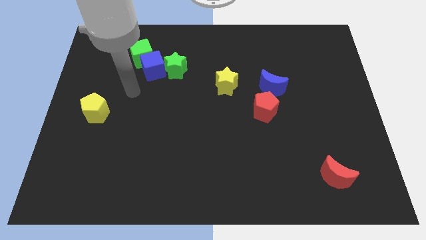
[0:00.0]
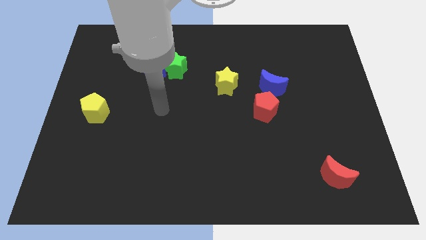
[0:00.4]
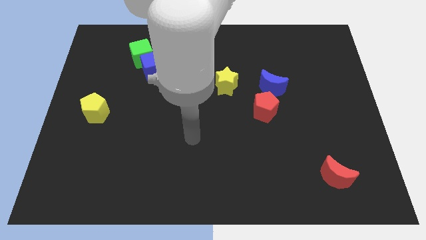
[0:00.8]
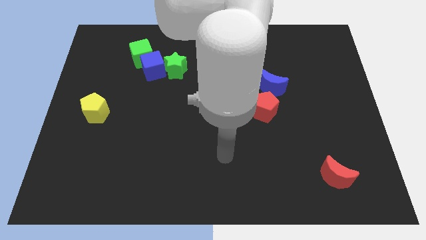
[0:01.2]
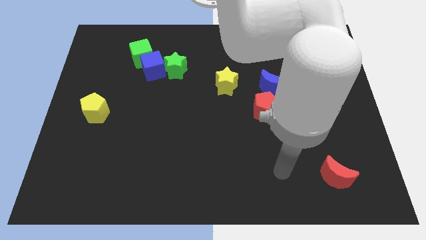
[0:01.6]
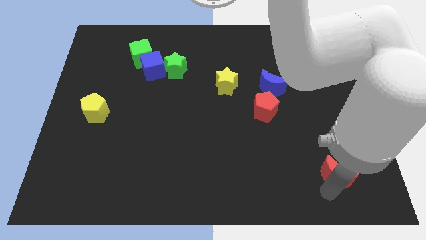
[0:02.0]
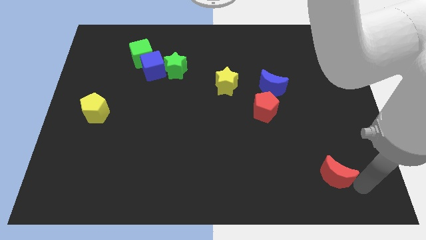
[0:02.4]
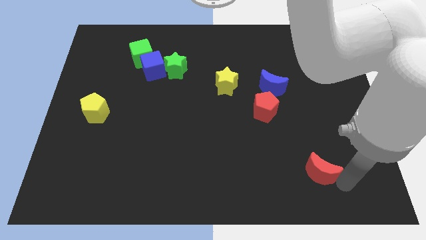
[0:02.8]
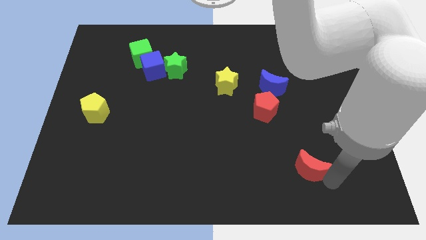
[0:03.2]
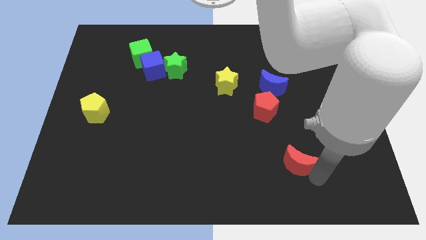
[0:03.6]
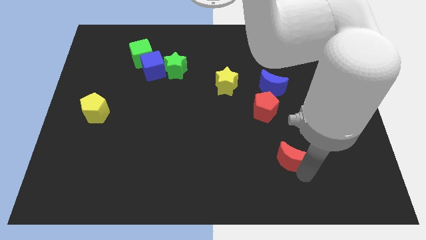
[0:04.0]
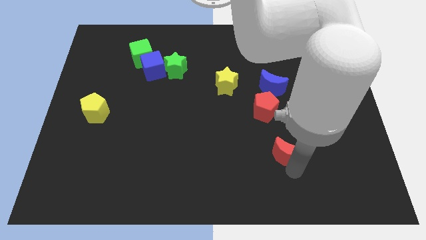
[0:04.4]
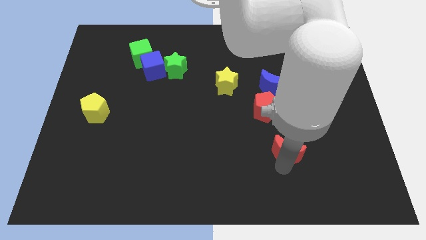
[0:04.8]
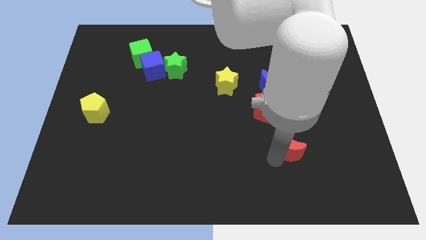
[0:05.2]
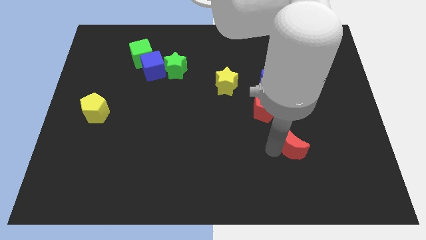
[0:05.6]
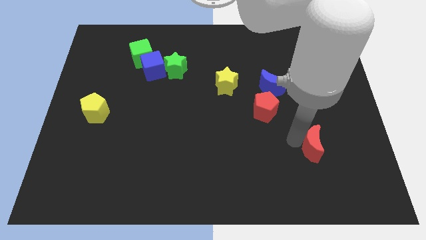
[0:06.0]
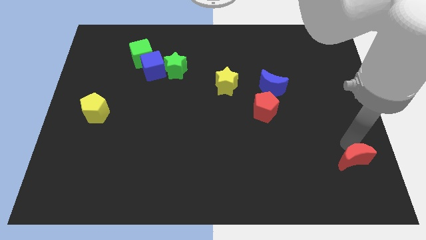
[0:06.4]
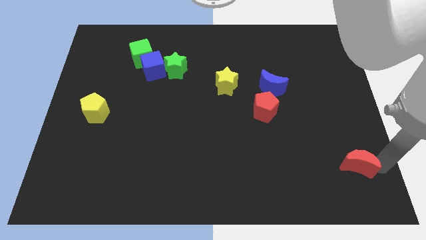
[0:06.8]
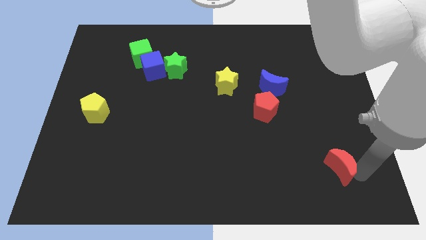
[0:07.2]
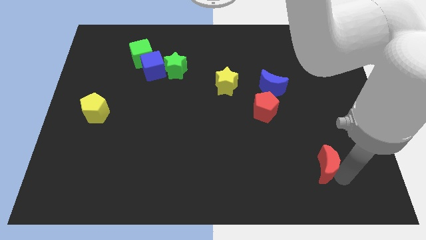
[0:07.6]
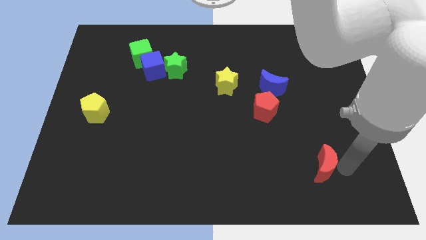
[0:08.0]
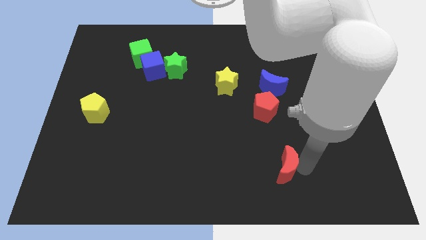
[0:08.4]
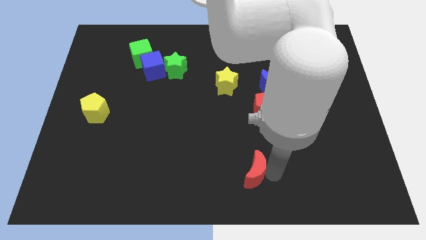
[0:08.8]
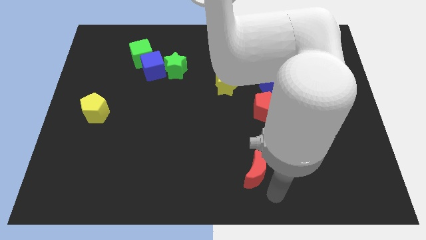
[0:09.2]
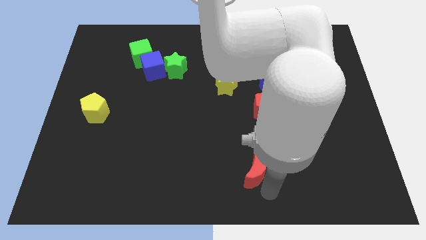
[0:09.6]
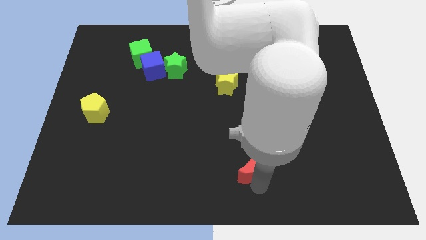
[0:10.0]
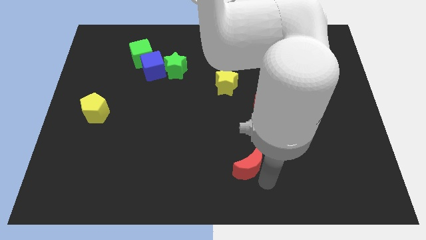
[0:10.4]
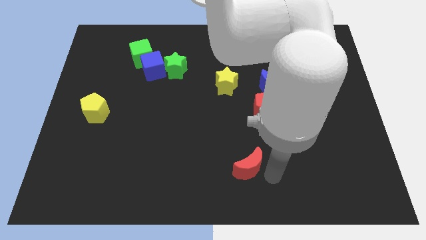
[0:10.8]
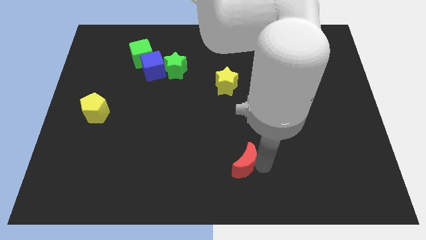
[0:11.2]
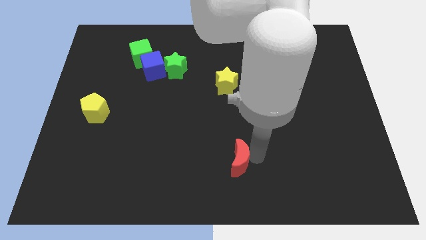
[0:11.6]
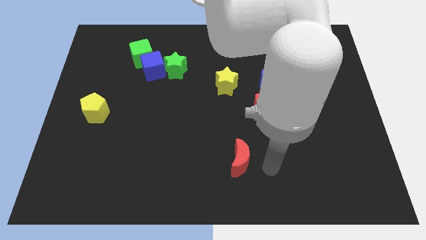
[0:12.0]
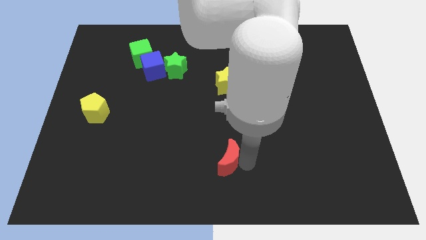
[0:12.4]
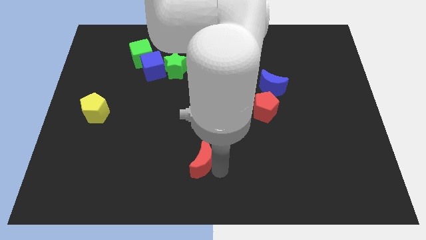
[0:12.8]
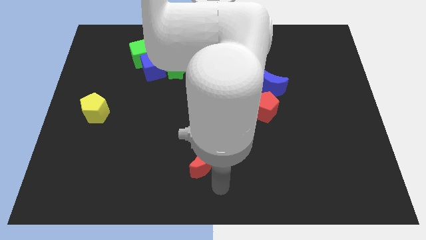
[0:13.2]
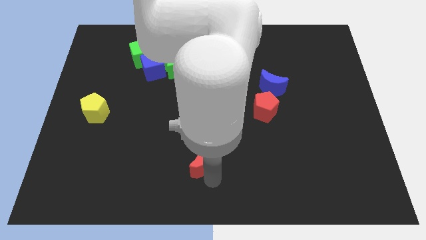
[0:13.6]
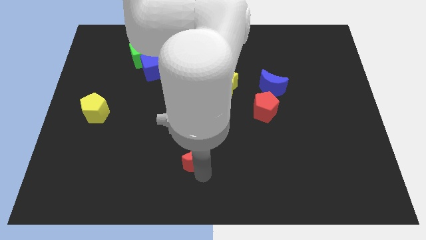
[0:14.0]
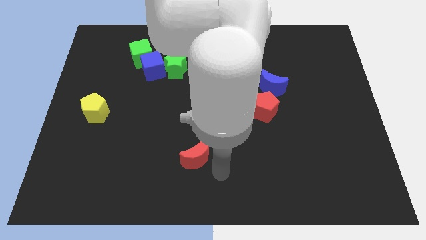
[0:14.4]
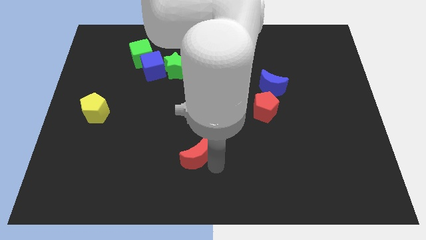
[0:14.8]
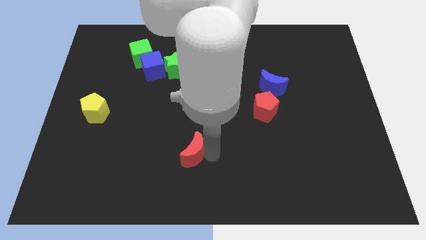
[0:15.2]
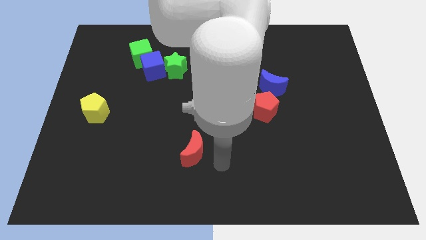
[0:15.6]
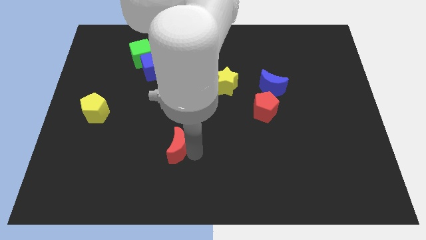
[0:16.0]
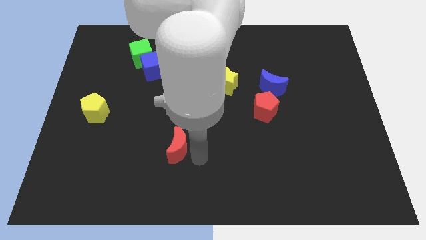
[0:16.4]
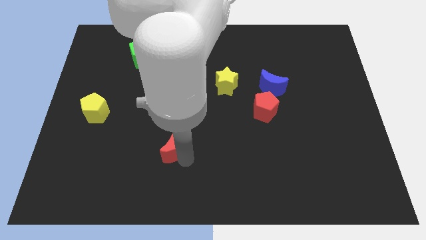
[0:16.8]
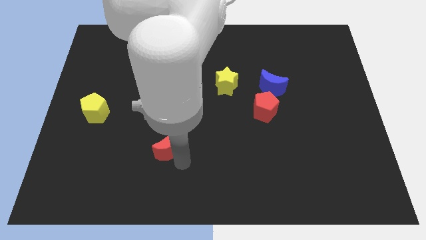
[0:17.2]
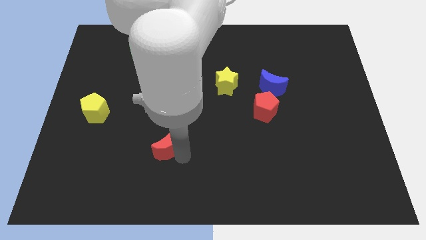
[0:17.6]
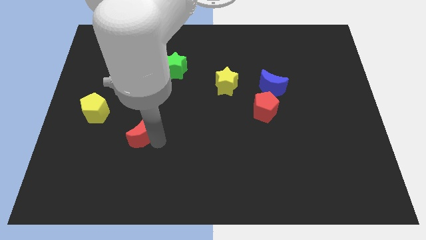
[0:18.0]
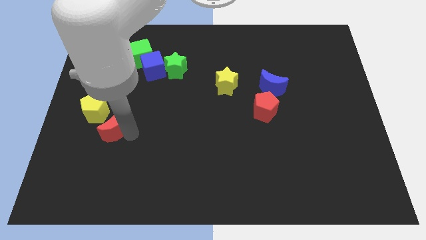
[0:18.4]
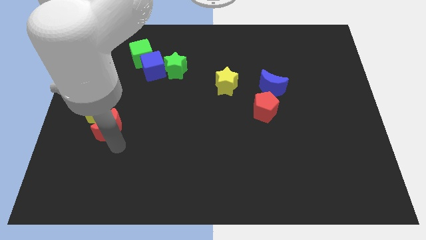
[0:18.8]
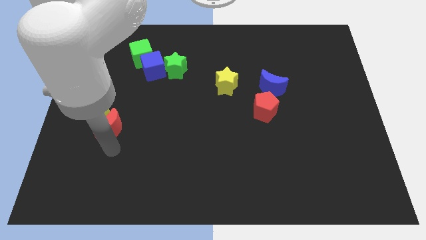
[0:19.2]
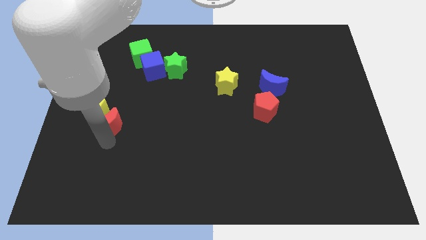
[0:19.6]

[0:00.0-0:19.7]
push the red moon towards the yellow pentagon

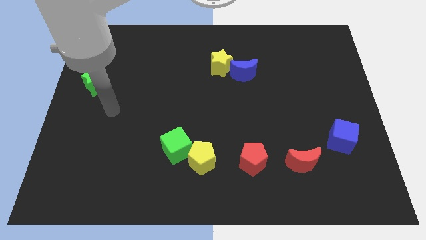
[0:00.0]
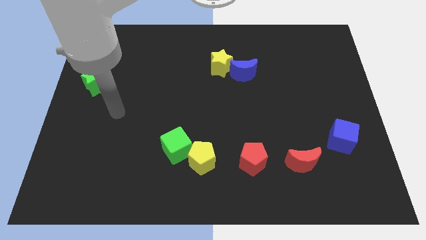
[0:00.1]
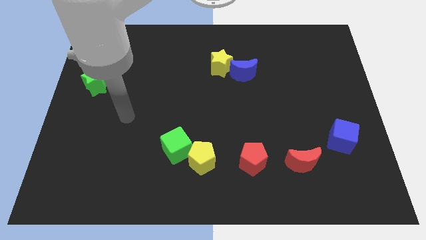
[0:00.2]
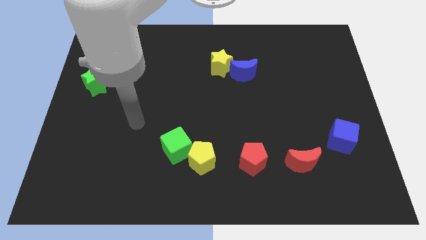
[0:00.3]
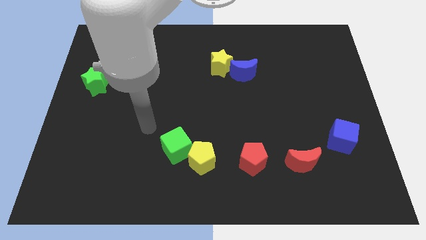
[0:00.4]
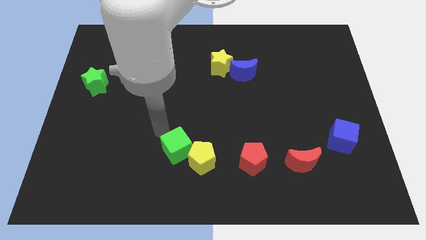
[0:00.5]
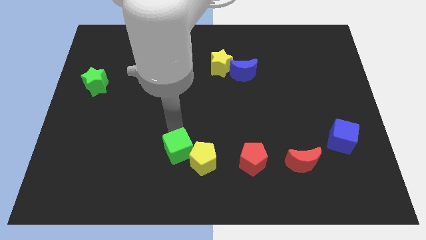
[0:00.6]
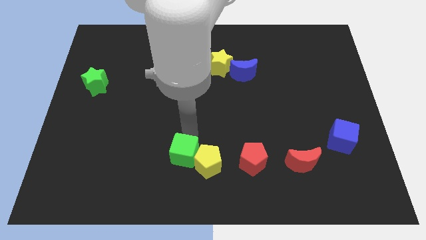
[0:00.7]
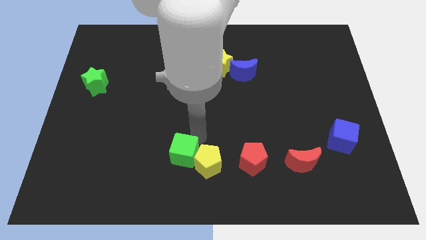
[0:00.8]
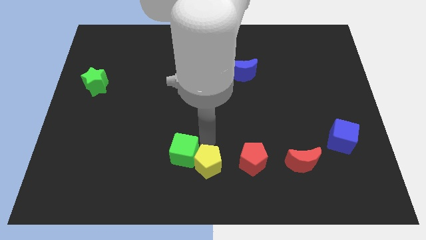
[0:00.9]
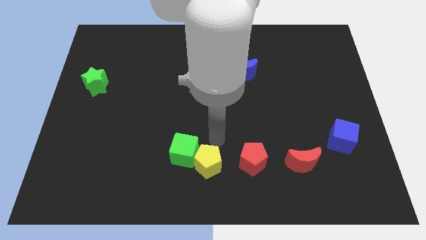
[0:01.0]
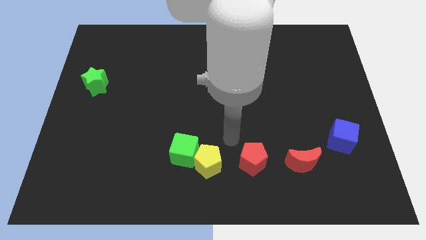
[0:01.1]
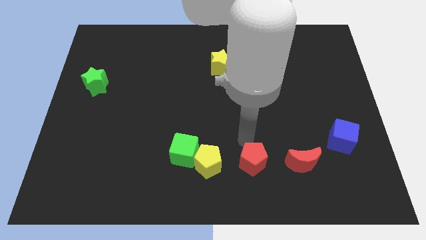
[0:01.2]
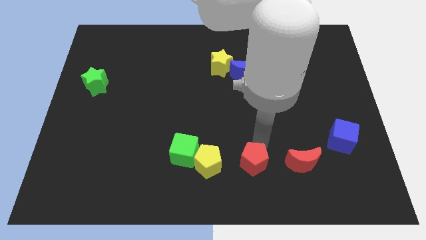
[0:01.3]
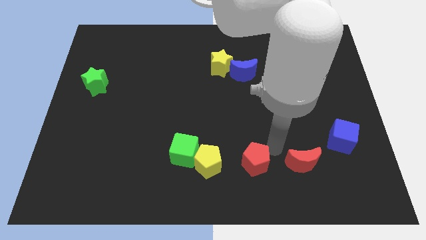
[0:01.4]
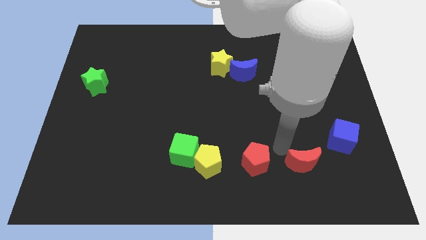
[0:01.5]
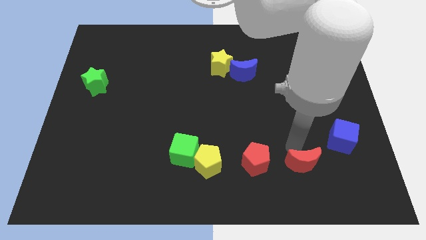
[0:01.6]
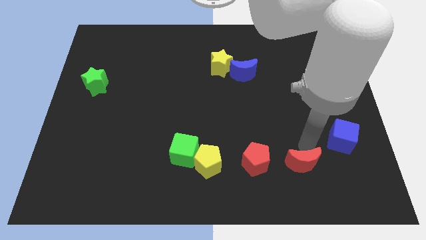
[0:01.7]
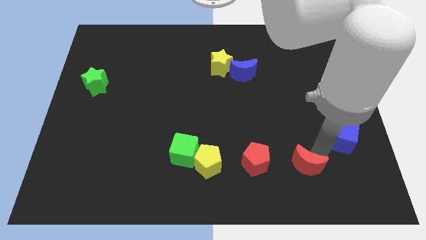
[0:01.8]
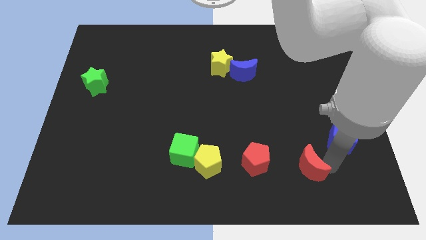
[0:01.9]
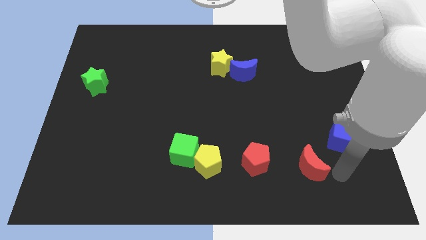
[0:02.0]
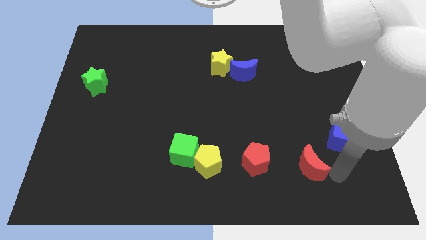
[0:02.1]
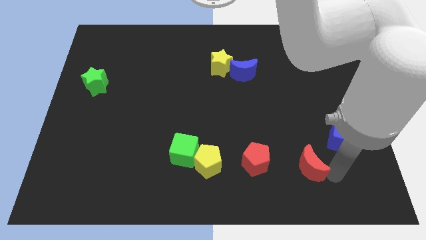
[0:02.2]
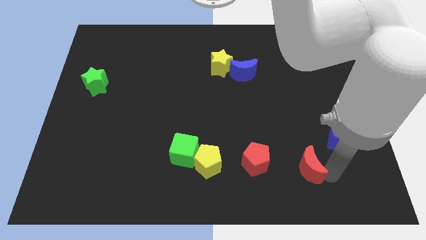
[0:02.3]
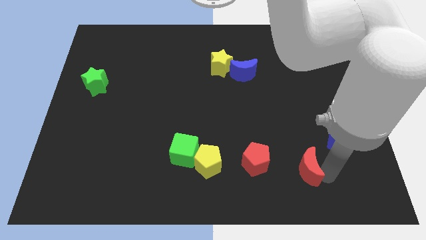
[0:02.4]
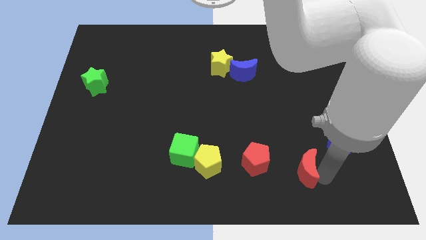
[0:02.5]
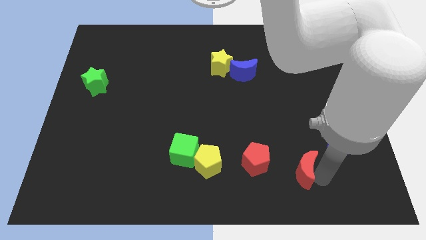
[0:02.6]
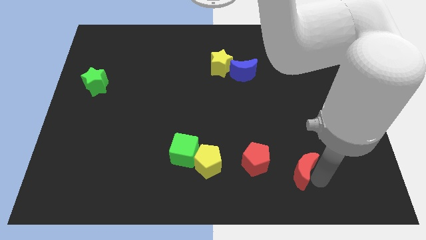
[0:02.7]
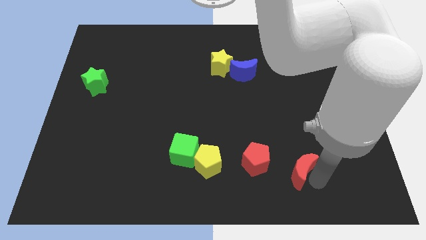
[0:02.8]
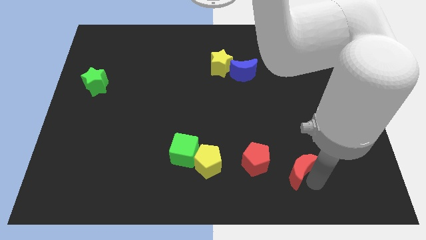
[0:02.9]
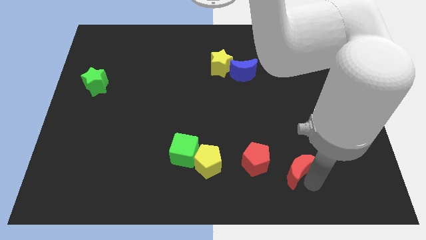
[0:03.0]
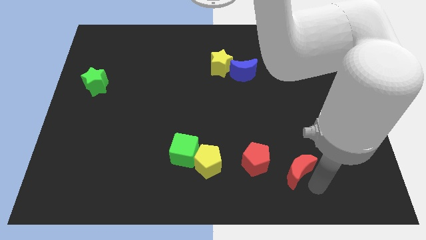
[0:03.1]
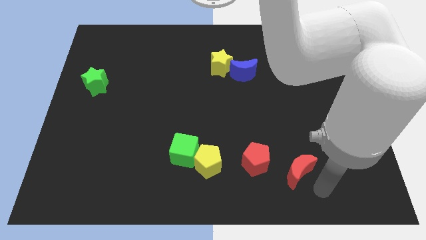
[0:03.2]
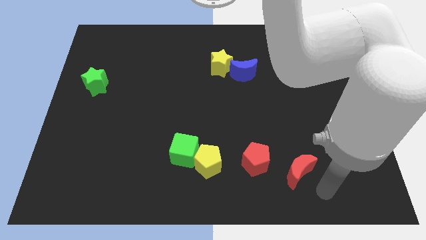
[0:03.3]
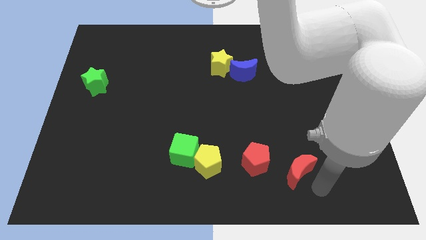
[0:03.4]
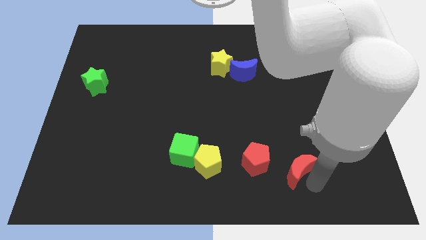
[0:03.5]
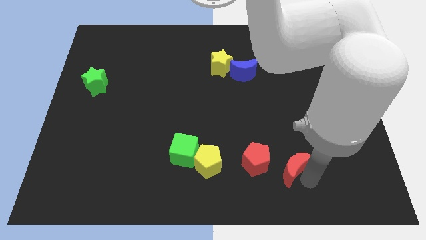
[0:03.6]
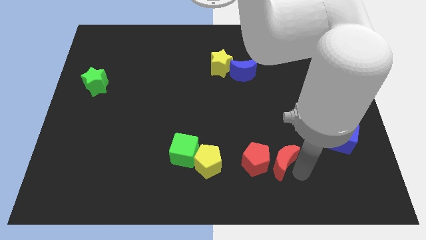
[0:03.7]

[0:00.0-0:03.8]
slide the red moon to the red pentagon
